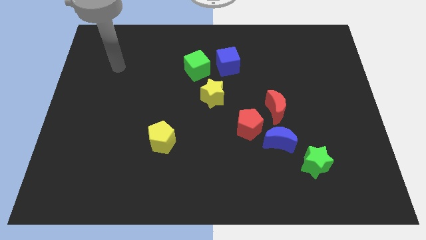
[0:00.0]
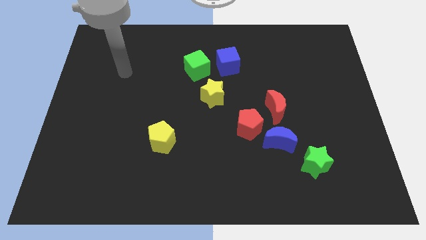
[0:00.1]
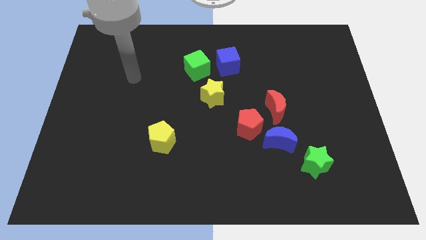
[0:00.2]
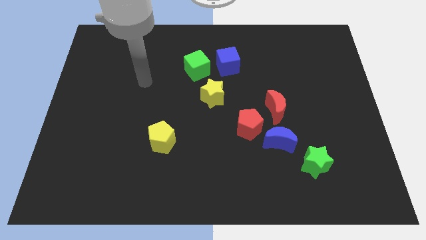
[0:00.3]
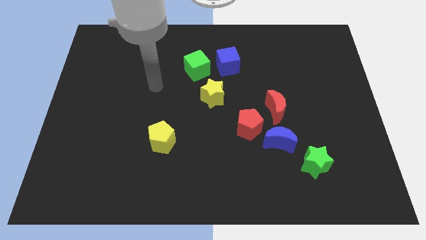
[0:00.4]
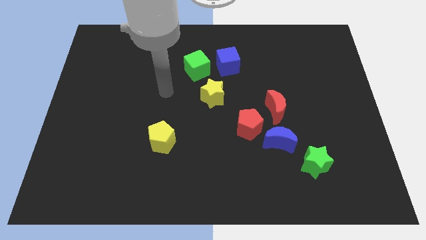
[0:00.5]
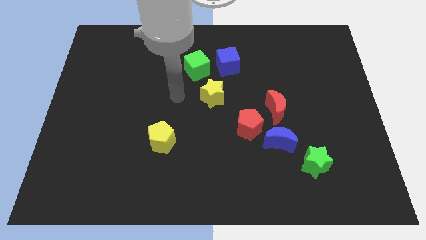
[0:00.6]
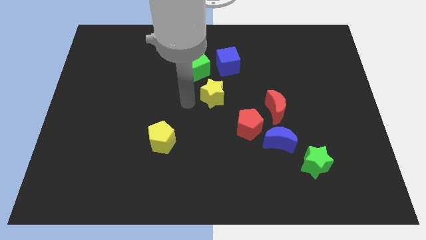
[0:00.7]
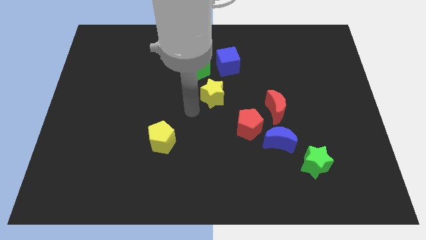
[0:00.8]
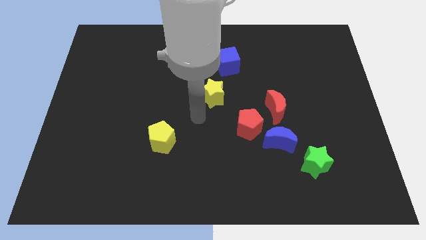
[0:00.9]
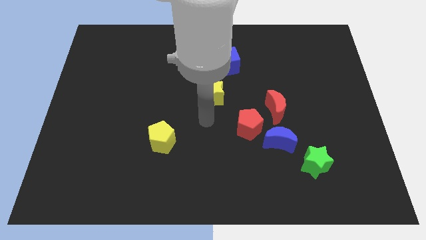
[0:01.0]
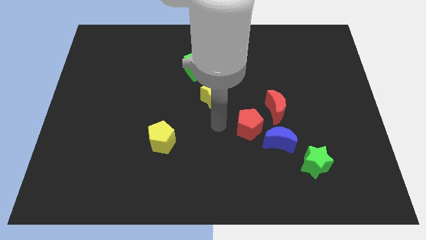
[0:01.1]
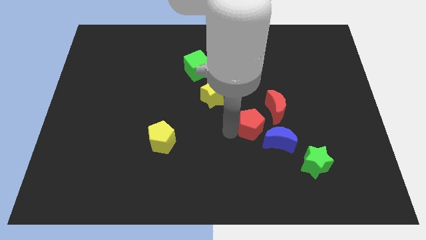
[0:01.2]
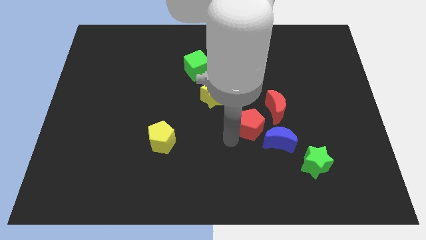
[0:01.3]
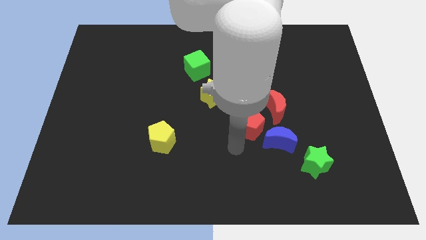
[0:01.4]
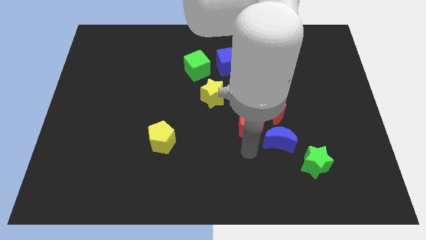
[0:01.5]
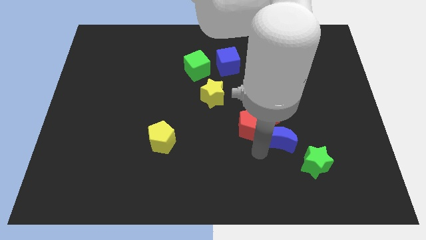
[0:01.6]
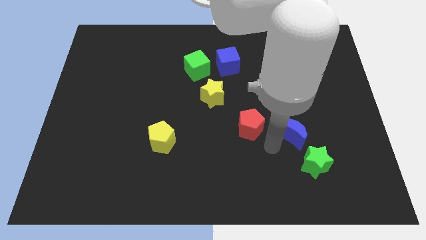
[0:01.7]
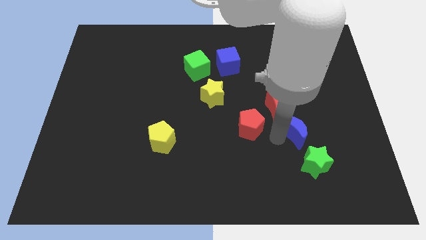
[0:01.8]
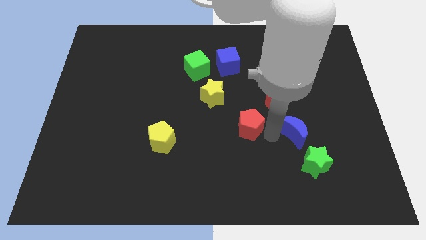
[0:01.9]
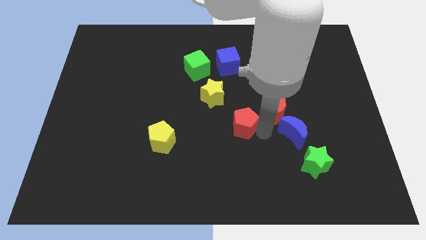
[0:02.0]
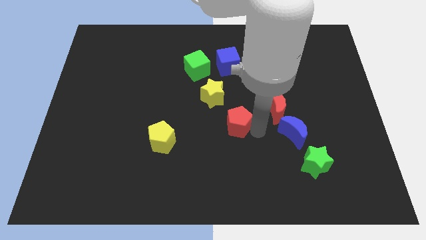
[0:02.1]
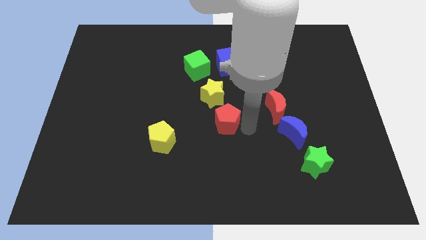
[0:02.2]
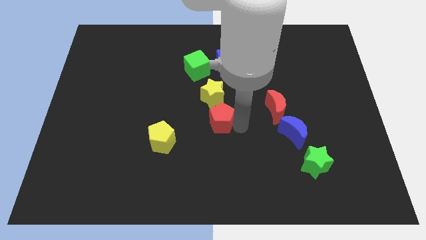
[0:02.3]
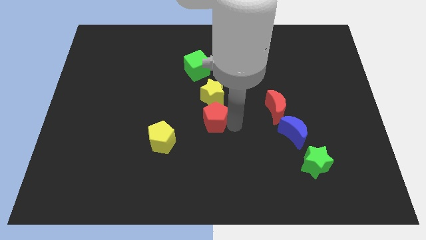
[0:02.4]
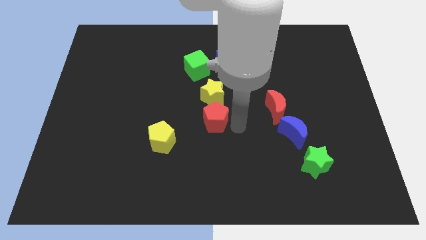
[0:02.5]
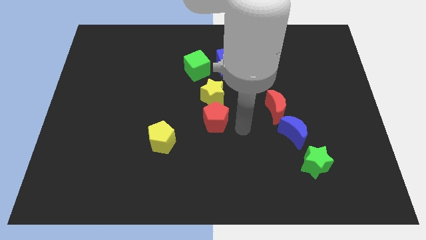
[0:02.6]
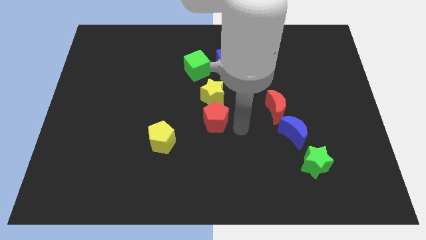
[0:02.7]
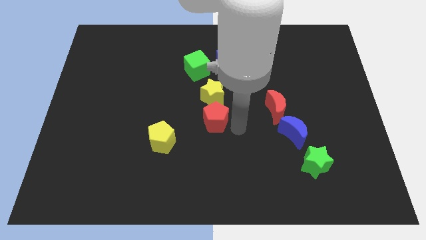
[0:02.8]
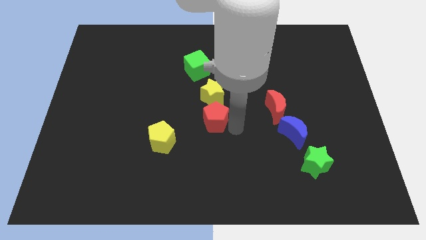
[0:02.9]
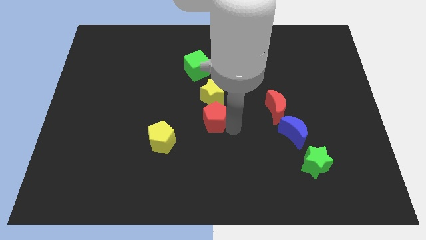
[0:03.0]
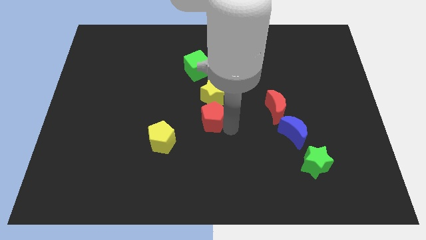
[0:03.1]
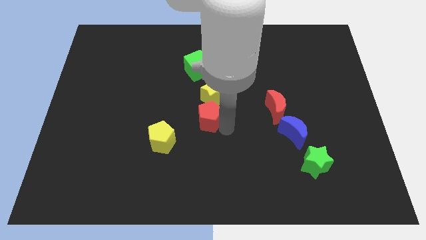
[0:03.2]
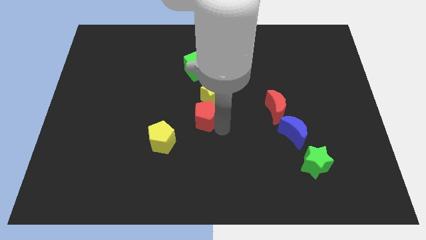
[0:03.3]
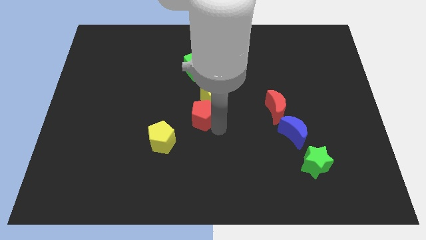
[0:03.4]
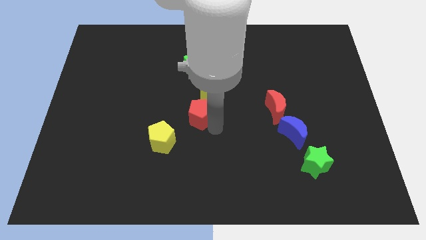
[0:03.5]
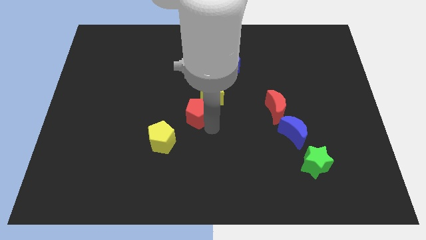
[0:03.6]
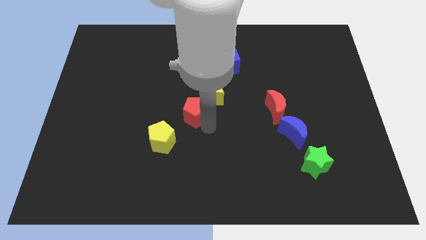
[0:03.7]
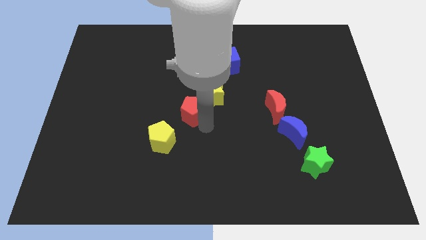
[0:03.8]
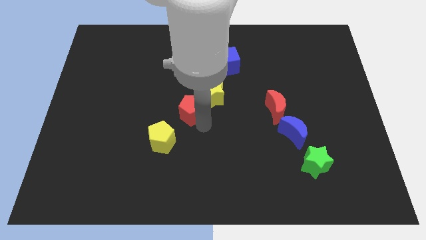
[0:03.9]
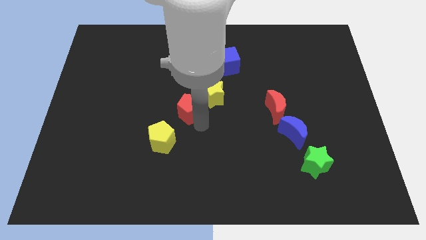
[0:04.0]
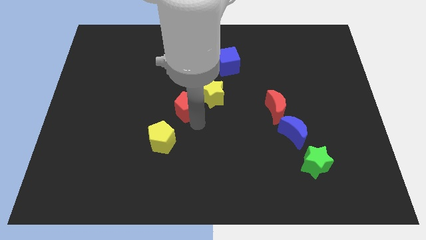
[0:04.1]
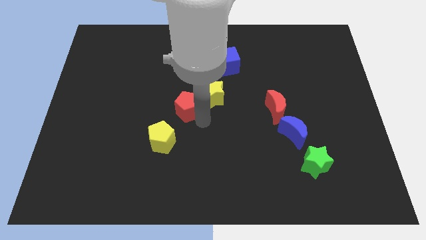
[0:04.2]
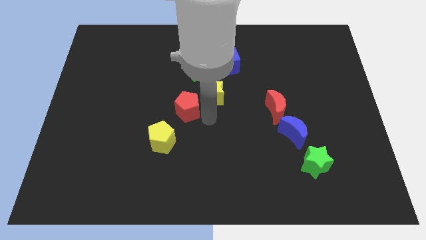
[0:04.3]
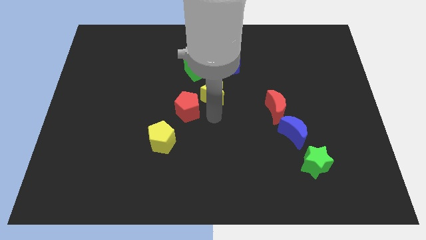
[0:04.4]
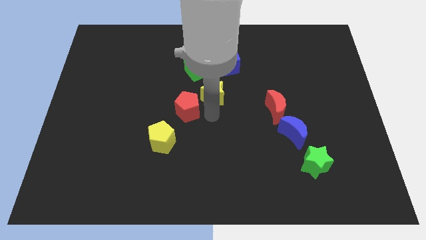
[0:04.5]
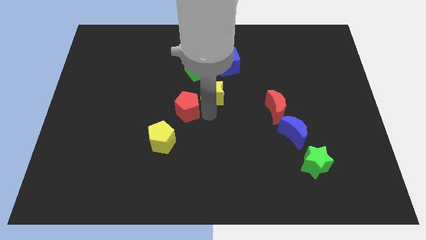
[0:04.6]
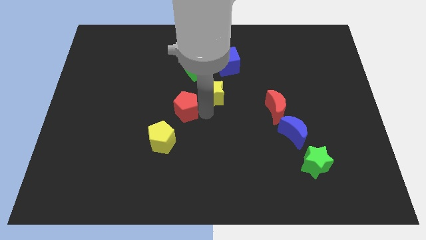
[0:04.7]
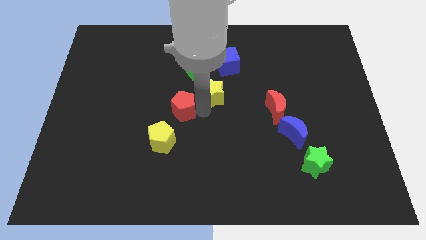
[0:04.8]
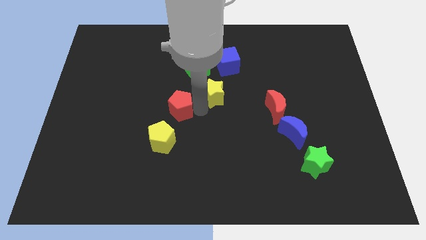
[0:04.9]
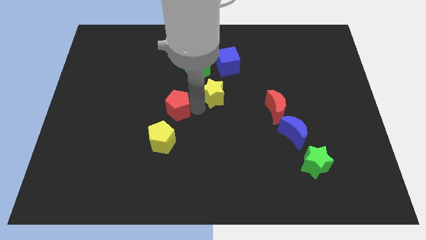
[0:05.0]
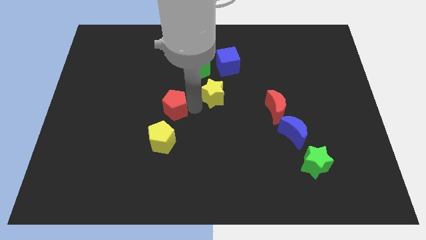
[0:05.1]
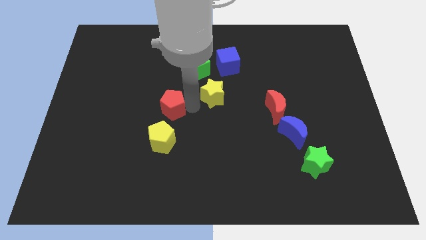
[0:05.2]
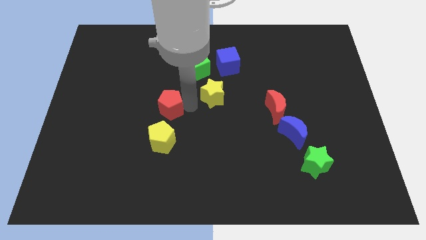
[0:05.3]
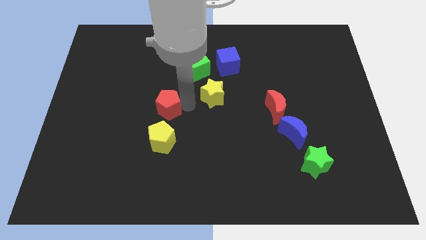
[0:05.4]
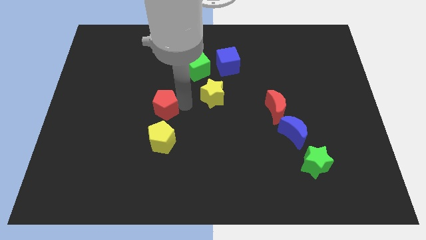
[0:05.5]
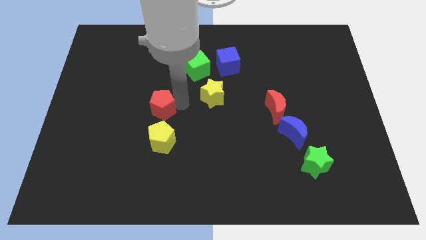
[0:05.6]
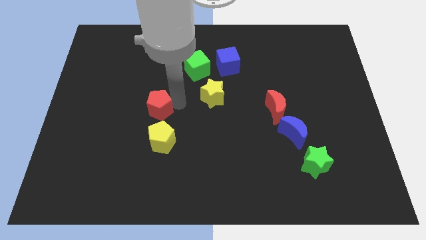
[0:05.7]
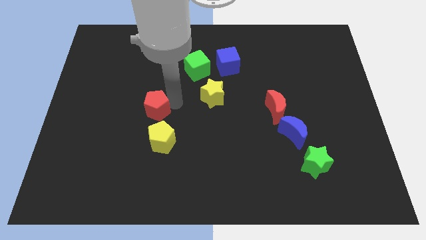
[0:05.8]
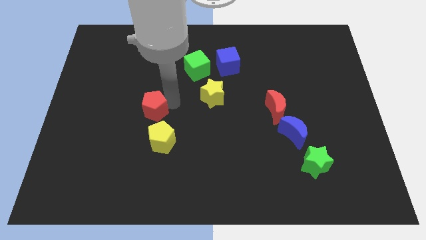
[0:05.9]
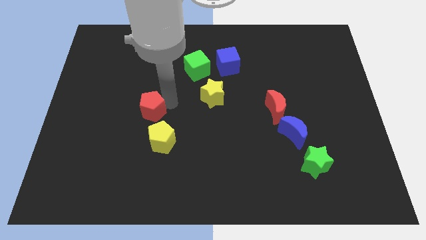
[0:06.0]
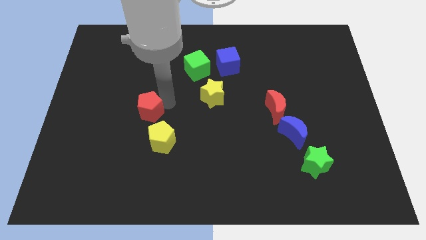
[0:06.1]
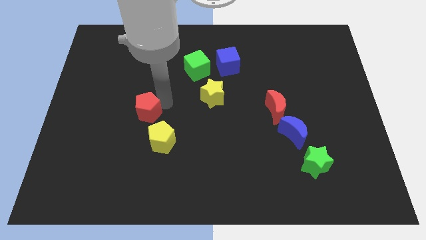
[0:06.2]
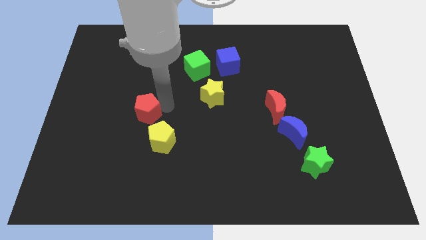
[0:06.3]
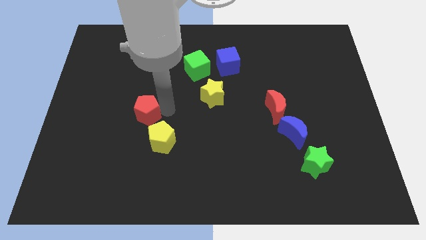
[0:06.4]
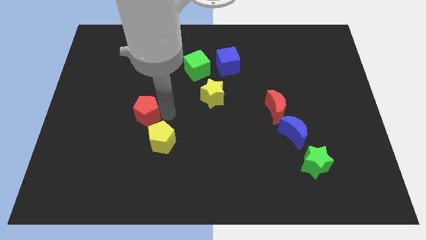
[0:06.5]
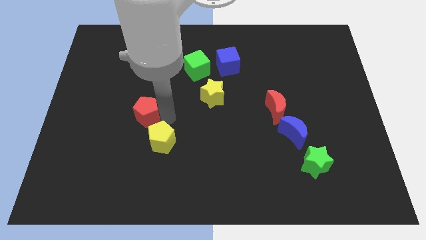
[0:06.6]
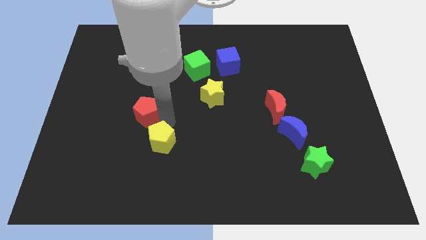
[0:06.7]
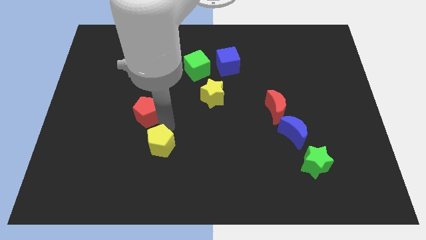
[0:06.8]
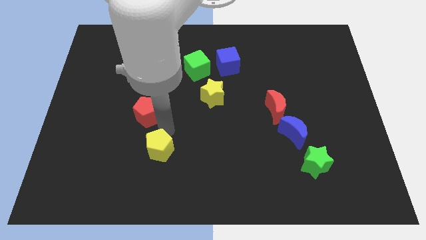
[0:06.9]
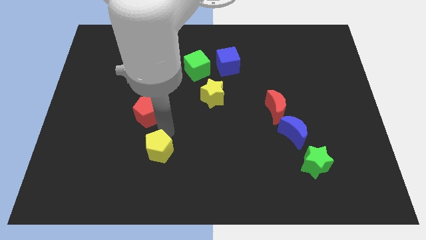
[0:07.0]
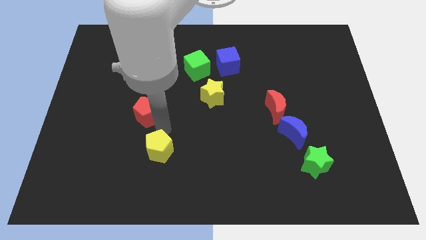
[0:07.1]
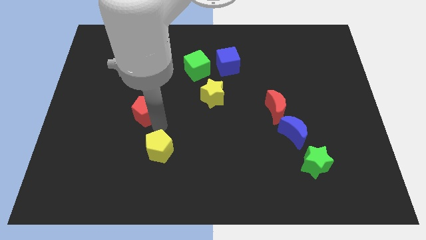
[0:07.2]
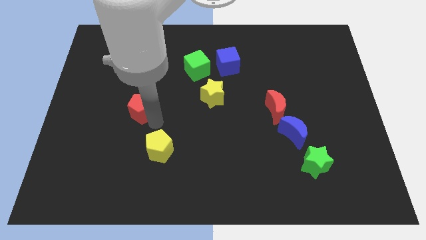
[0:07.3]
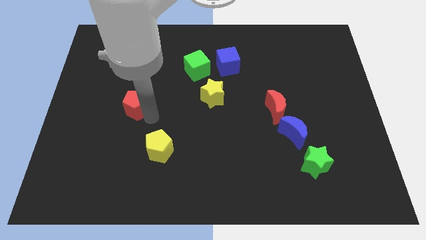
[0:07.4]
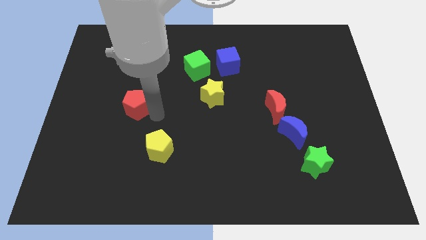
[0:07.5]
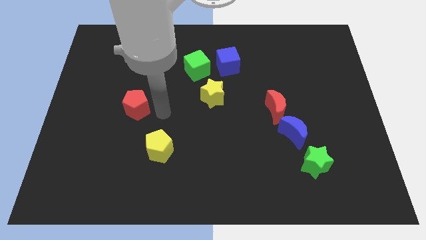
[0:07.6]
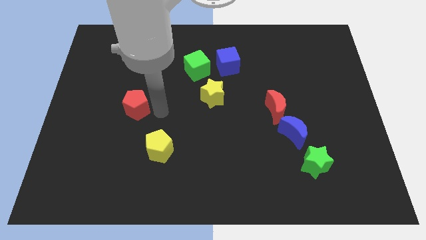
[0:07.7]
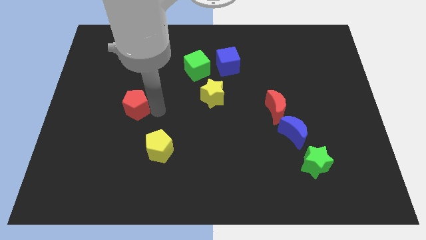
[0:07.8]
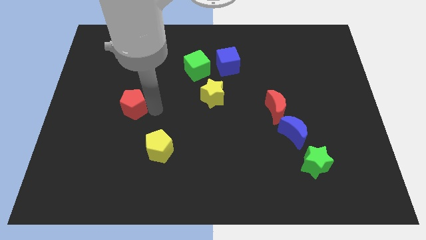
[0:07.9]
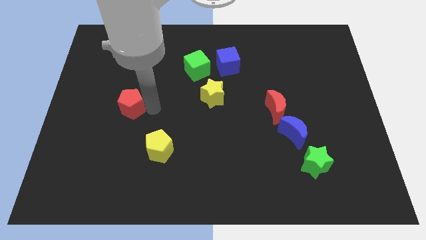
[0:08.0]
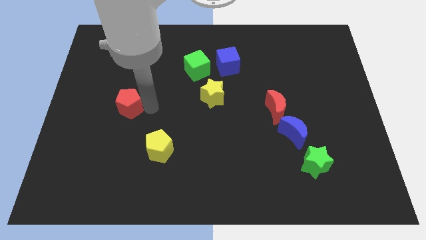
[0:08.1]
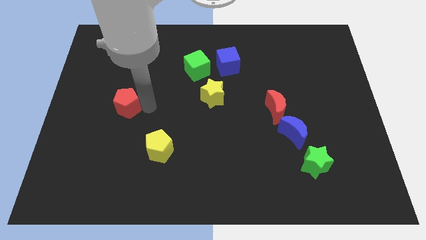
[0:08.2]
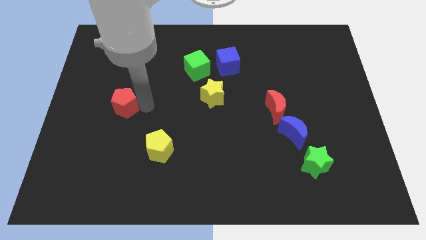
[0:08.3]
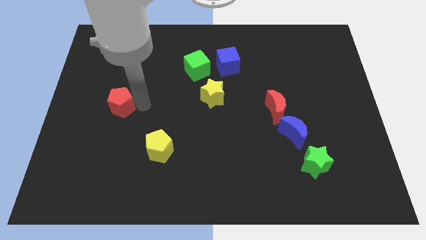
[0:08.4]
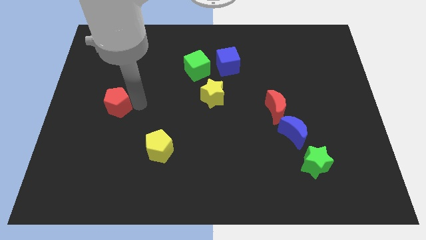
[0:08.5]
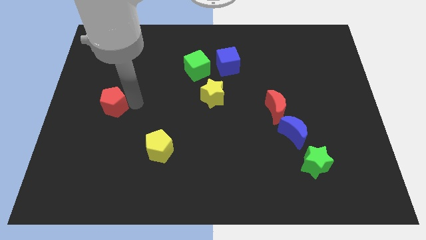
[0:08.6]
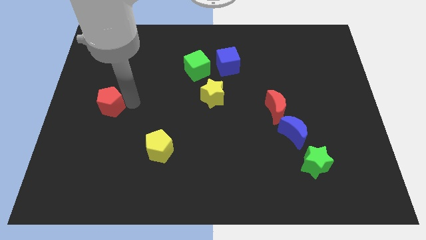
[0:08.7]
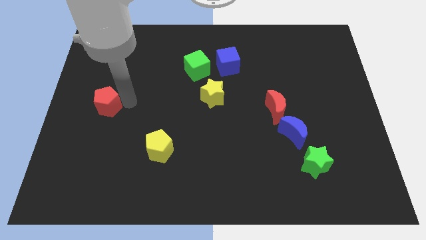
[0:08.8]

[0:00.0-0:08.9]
move the red pentagon to the left side
